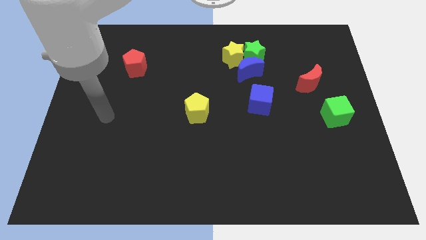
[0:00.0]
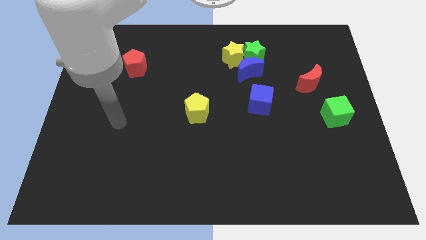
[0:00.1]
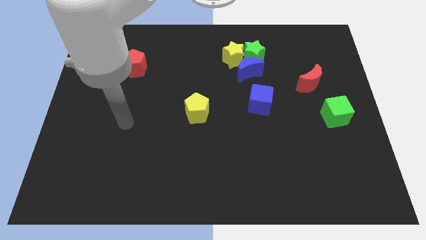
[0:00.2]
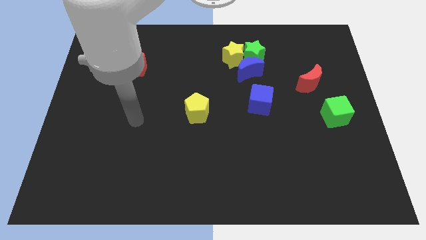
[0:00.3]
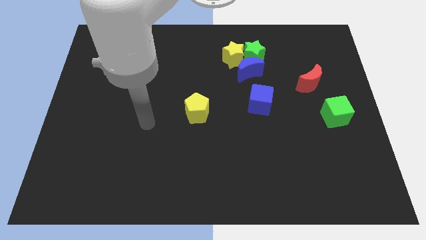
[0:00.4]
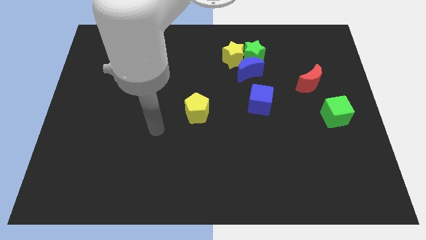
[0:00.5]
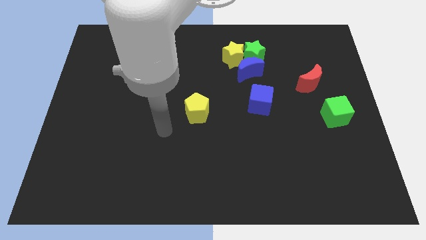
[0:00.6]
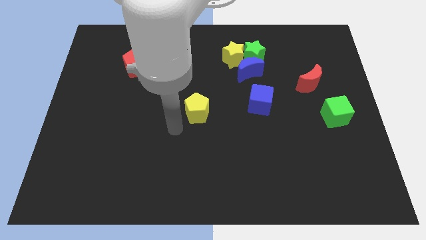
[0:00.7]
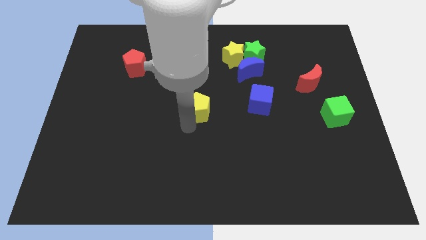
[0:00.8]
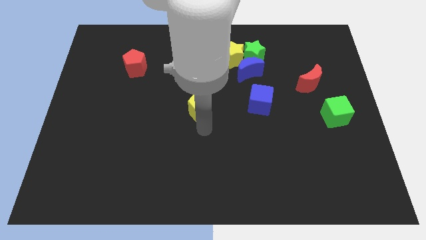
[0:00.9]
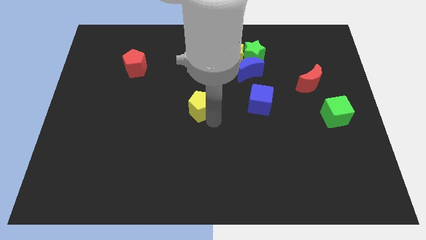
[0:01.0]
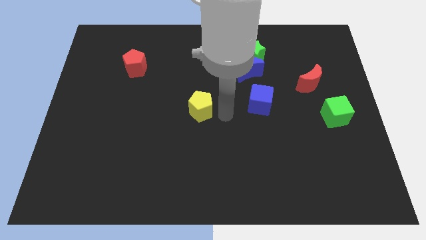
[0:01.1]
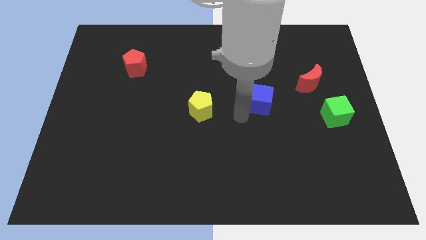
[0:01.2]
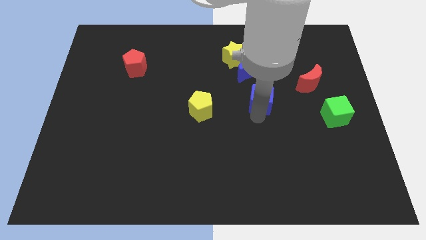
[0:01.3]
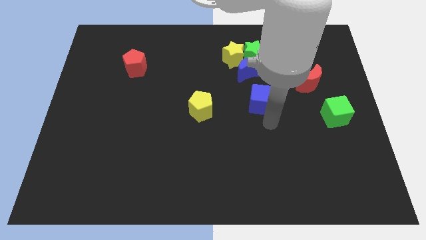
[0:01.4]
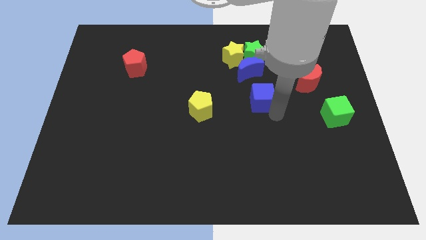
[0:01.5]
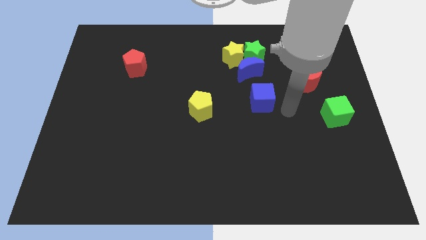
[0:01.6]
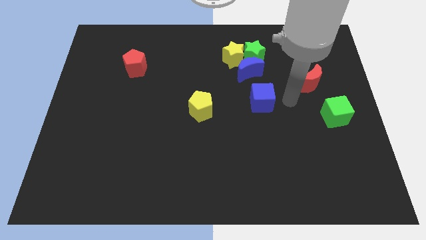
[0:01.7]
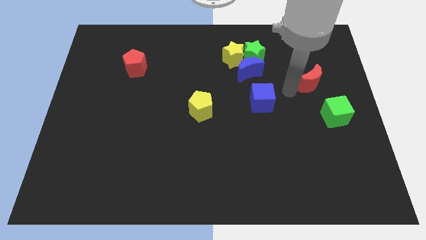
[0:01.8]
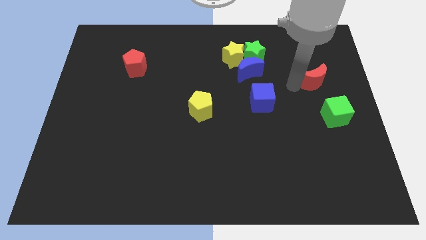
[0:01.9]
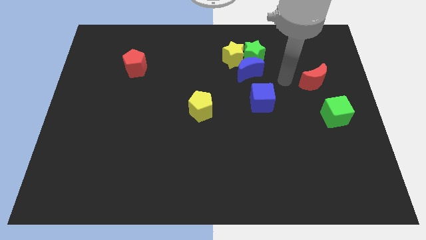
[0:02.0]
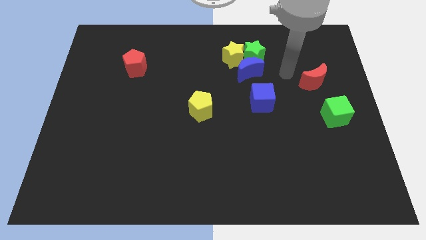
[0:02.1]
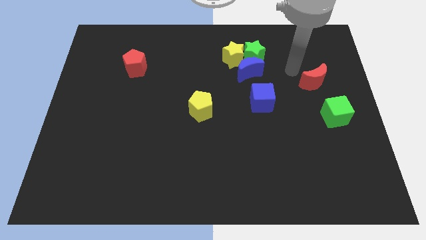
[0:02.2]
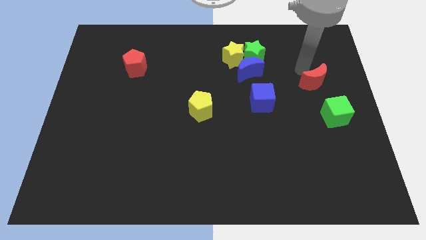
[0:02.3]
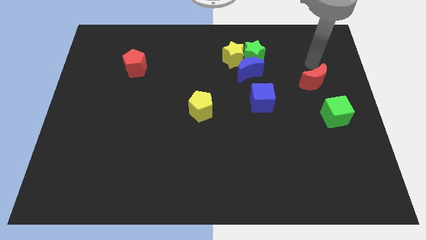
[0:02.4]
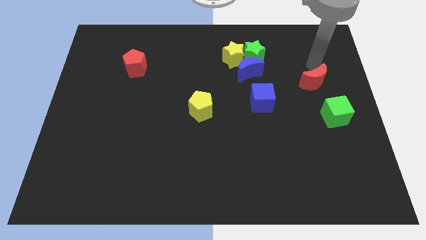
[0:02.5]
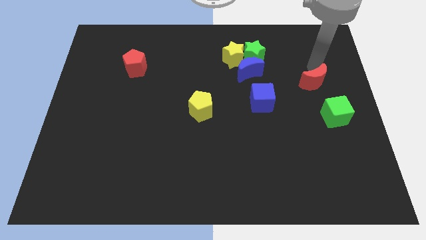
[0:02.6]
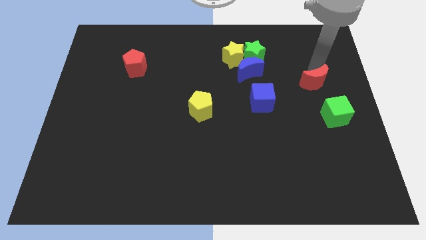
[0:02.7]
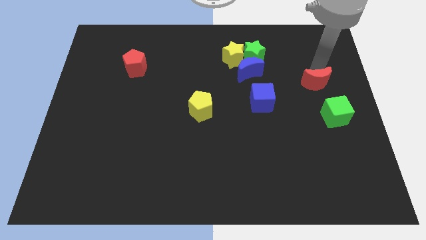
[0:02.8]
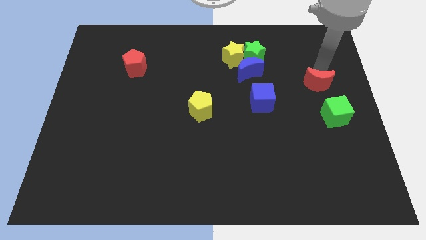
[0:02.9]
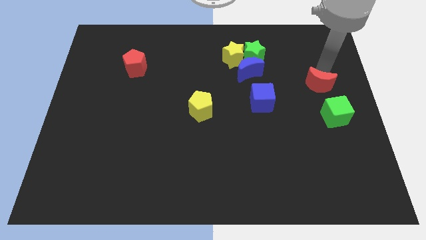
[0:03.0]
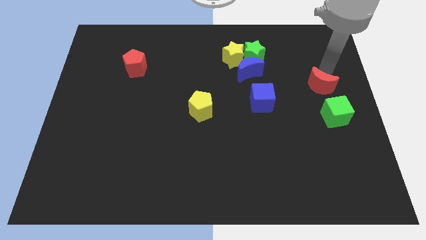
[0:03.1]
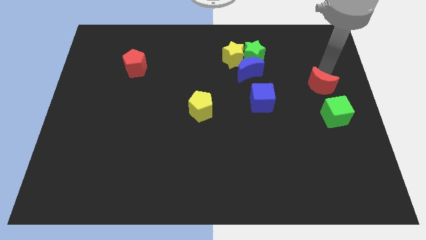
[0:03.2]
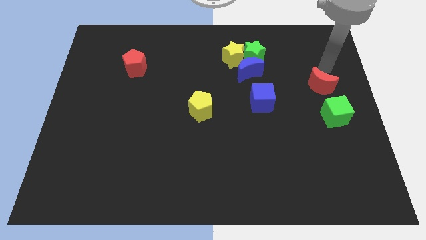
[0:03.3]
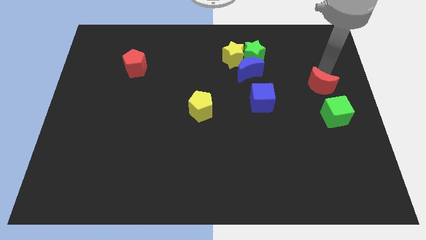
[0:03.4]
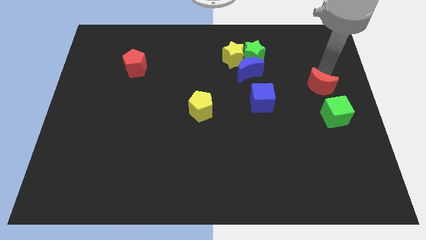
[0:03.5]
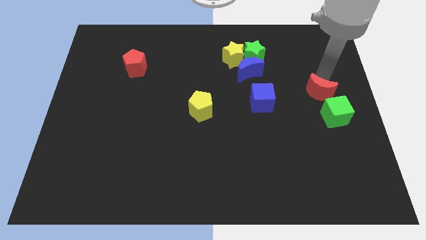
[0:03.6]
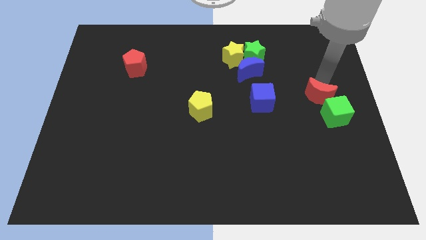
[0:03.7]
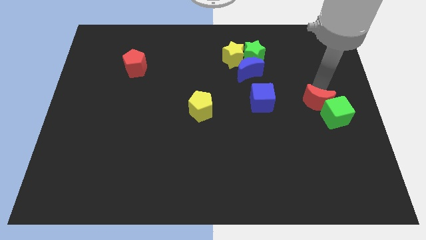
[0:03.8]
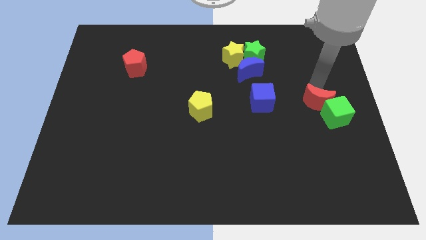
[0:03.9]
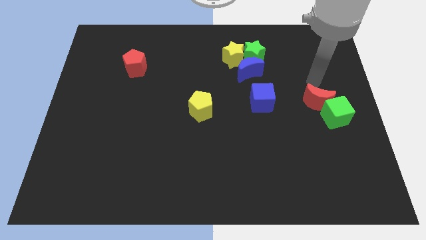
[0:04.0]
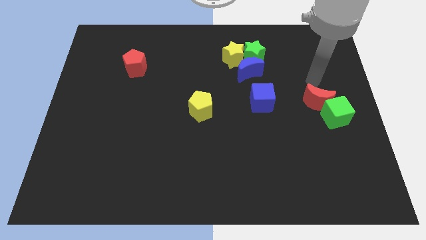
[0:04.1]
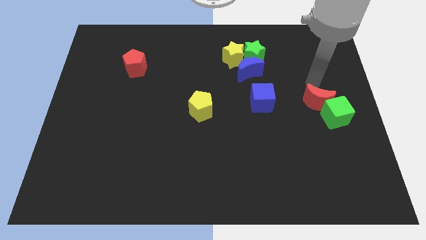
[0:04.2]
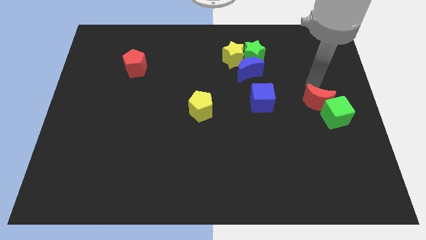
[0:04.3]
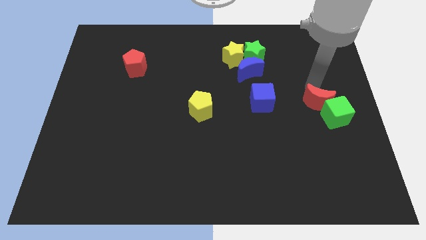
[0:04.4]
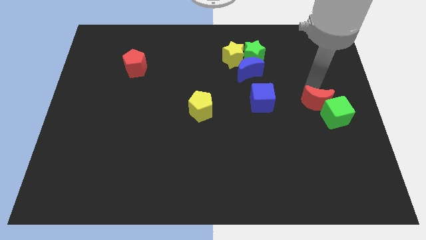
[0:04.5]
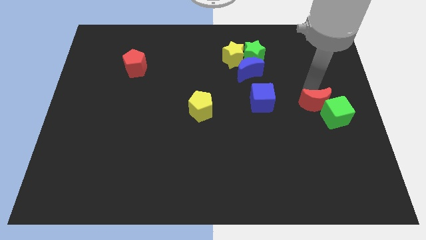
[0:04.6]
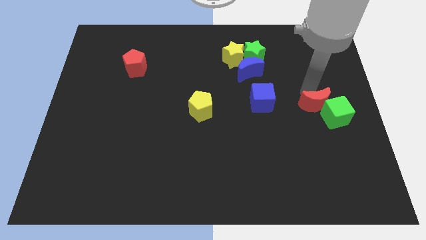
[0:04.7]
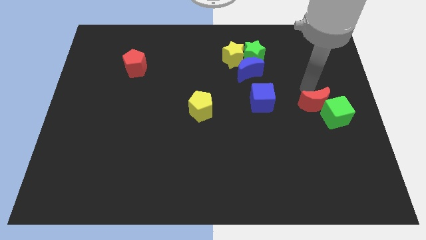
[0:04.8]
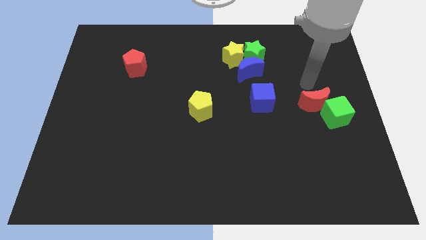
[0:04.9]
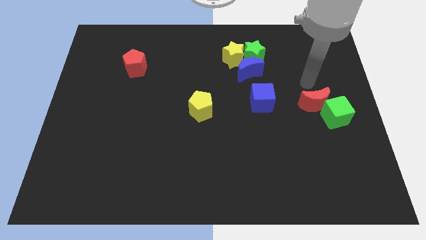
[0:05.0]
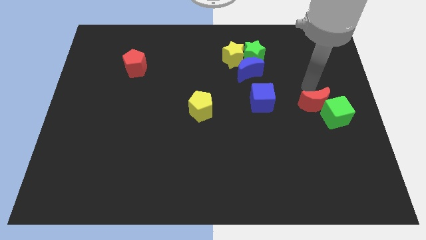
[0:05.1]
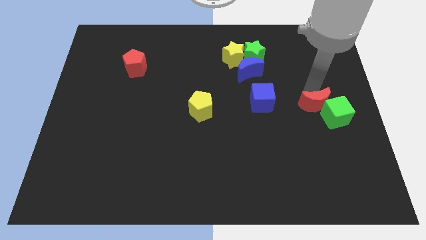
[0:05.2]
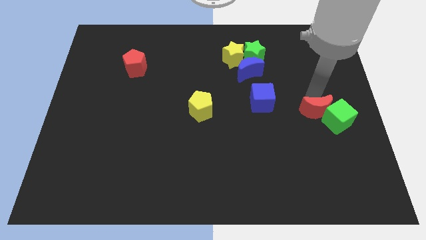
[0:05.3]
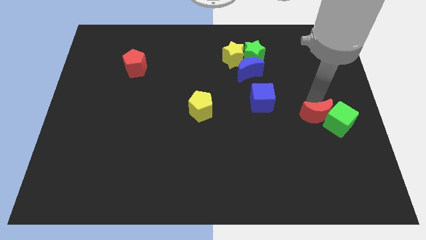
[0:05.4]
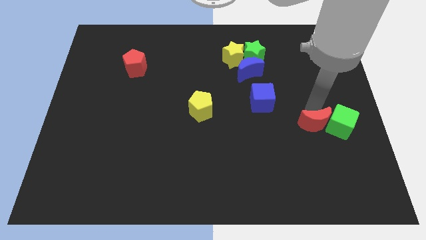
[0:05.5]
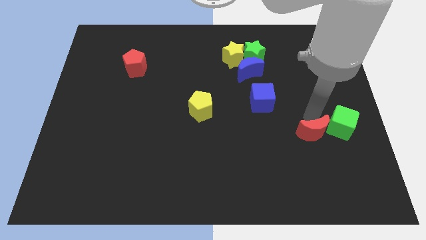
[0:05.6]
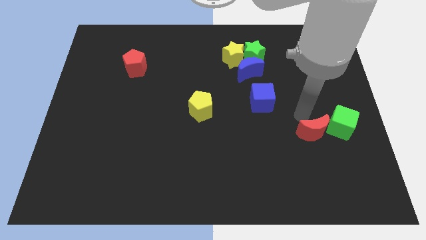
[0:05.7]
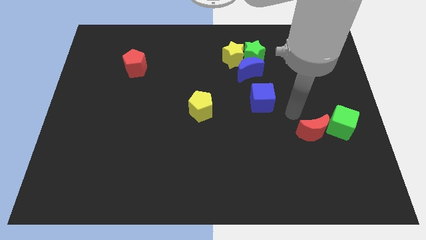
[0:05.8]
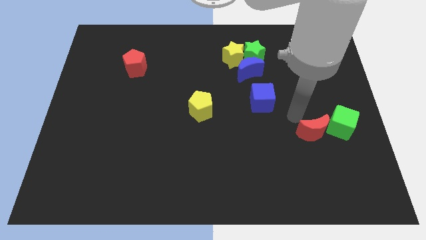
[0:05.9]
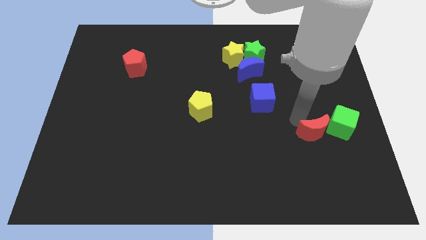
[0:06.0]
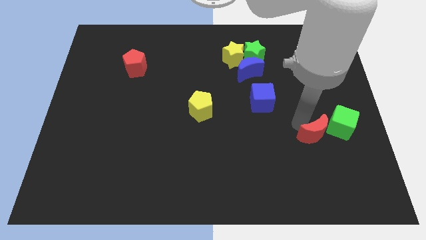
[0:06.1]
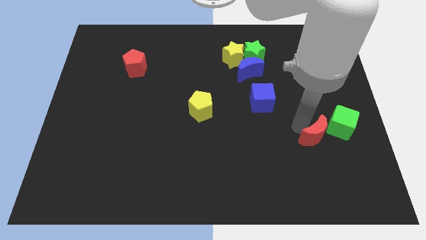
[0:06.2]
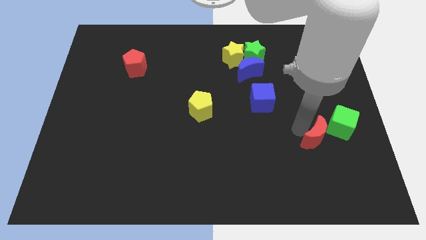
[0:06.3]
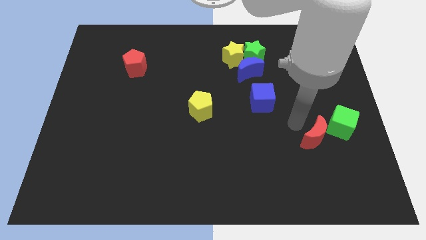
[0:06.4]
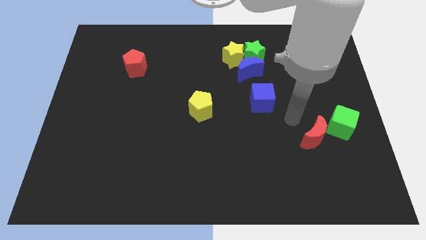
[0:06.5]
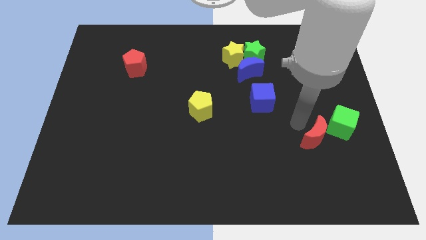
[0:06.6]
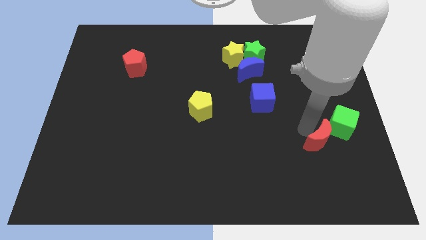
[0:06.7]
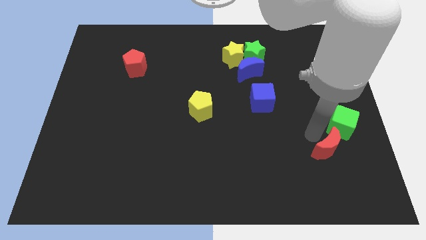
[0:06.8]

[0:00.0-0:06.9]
move the red moon to the bottom side of the green cube

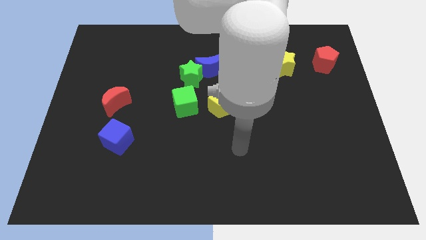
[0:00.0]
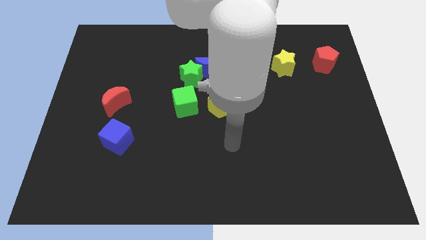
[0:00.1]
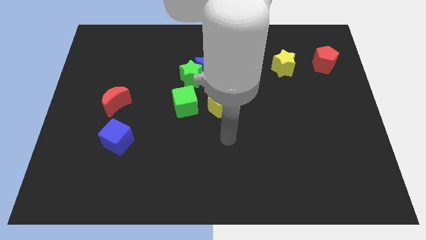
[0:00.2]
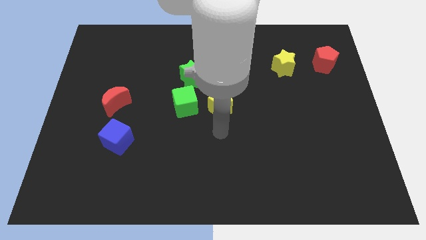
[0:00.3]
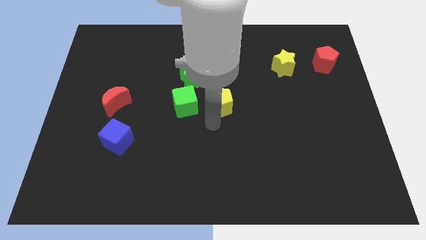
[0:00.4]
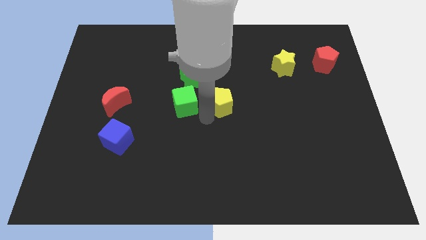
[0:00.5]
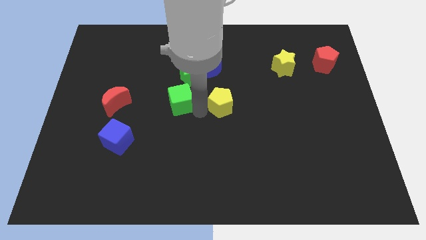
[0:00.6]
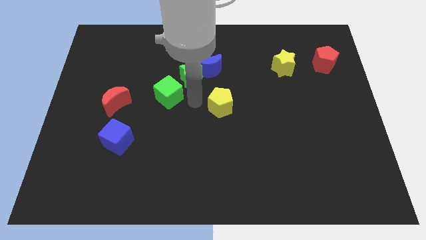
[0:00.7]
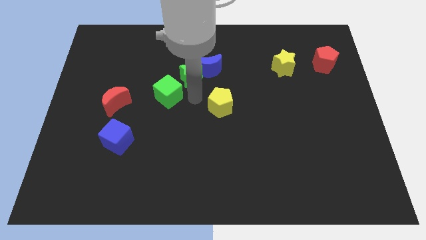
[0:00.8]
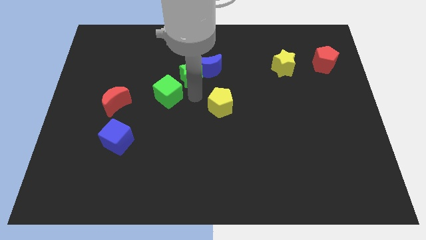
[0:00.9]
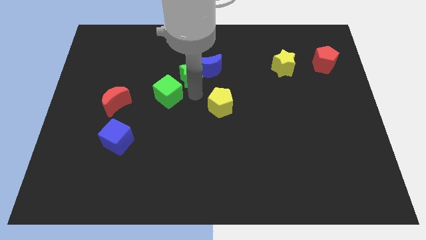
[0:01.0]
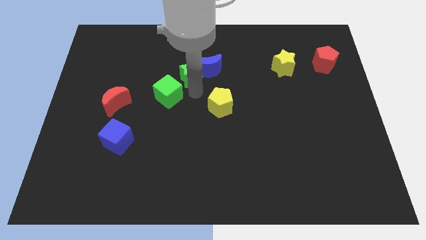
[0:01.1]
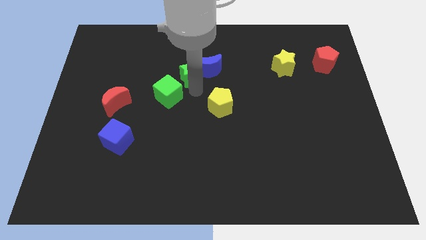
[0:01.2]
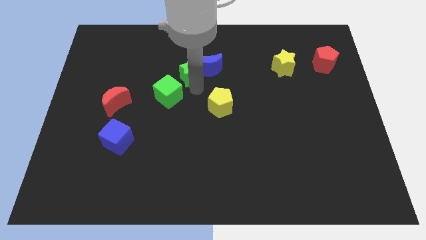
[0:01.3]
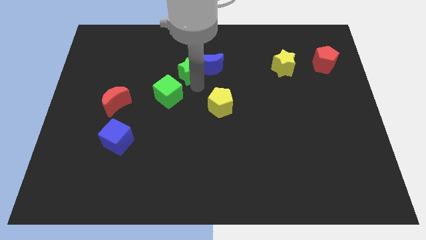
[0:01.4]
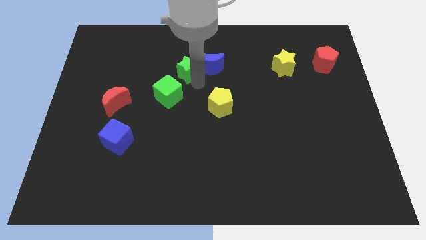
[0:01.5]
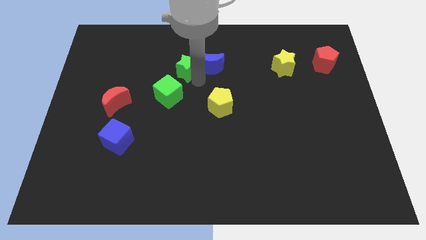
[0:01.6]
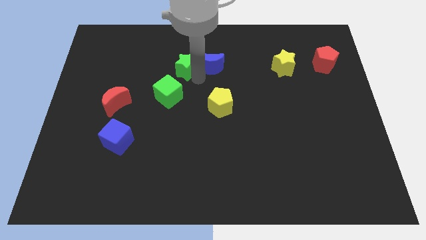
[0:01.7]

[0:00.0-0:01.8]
slide the green star diagonally up and to the left of the blue moon
